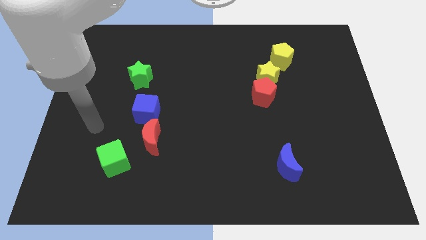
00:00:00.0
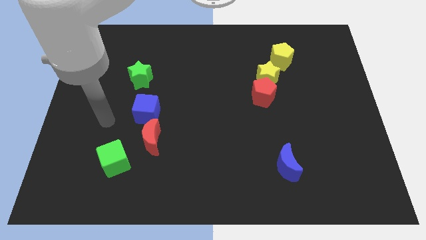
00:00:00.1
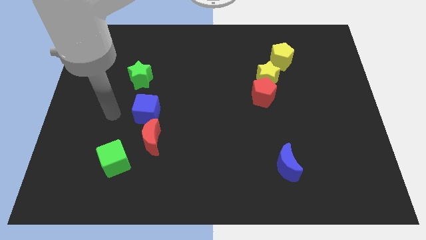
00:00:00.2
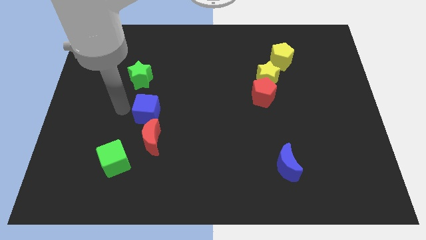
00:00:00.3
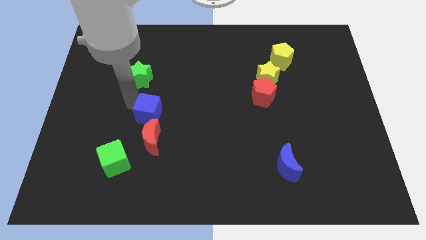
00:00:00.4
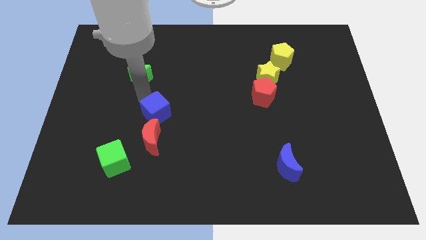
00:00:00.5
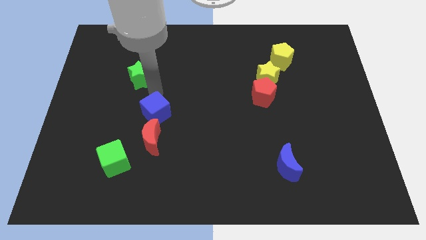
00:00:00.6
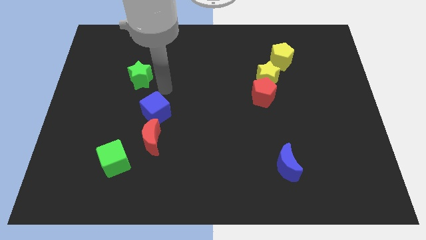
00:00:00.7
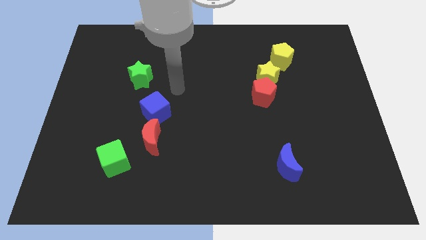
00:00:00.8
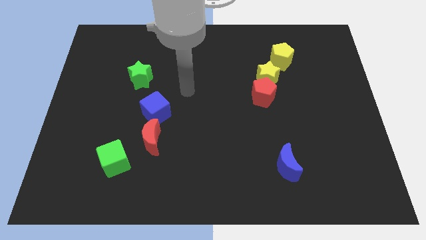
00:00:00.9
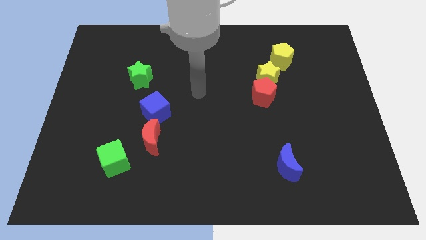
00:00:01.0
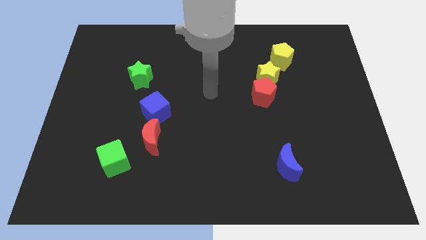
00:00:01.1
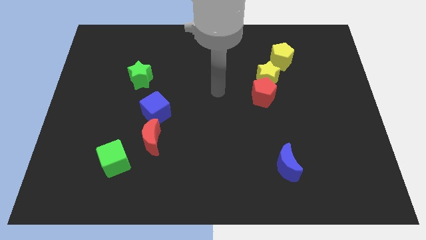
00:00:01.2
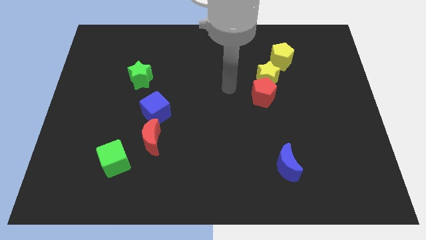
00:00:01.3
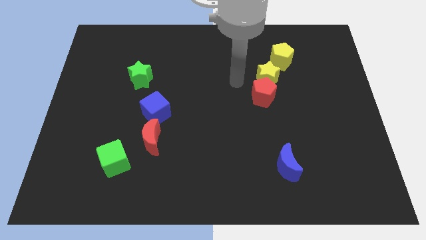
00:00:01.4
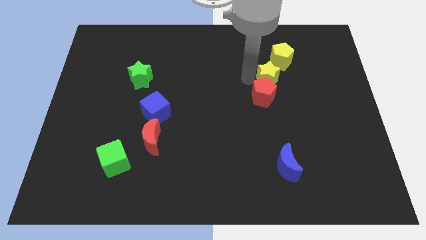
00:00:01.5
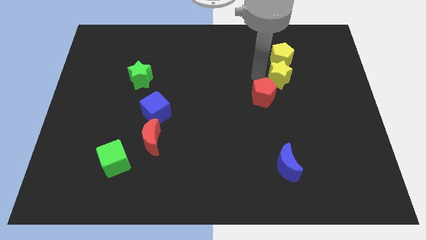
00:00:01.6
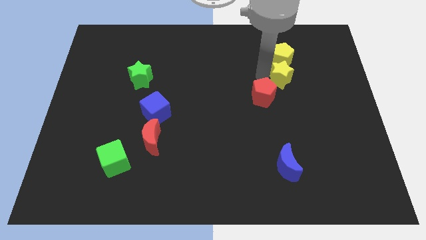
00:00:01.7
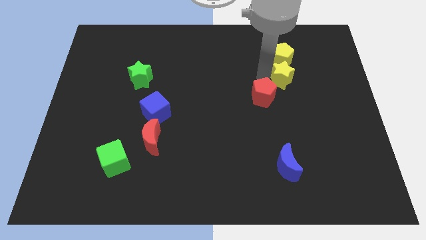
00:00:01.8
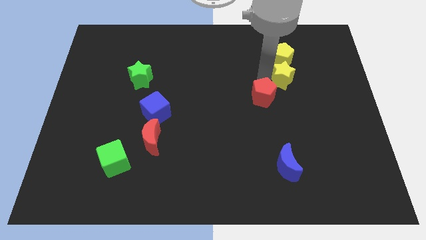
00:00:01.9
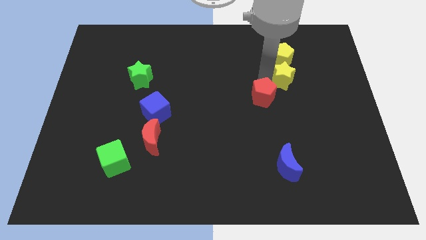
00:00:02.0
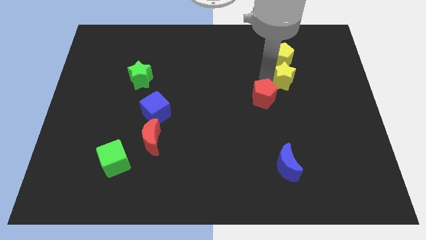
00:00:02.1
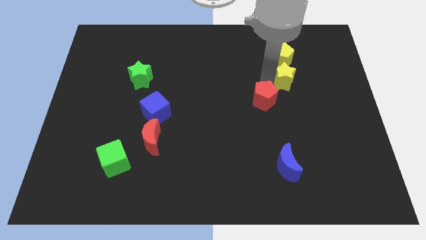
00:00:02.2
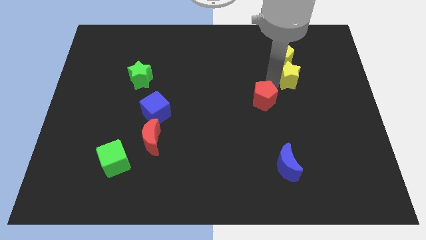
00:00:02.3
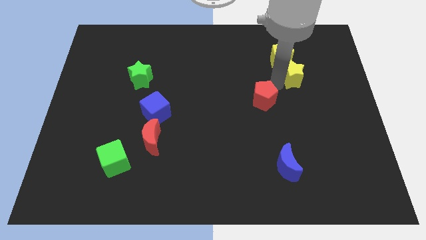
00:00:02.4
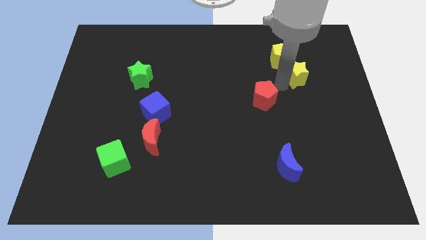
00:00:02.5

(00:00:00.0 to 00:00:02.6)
separate the red pentagon from the yellow star

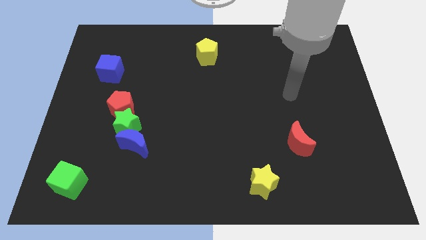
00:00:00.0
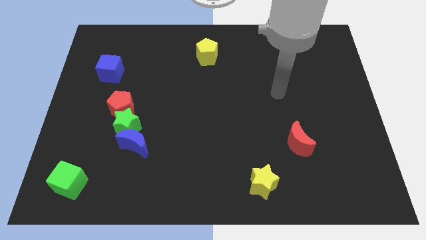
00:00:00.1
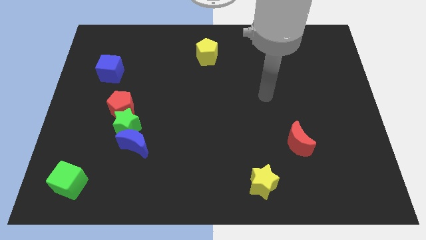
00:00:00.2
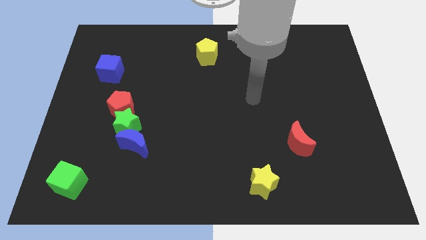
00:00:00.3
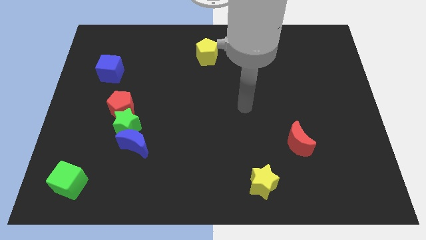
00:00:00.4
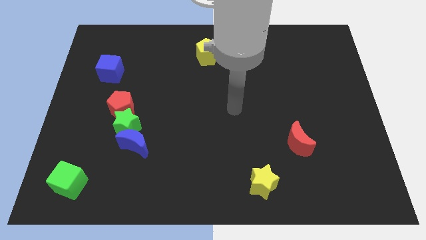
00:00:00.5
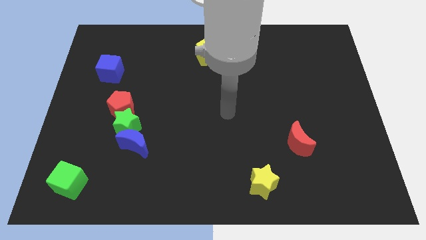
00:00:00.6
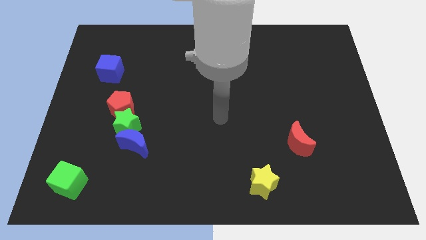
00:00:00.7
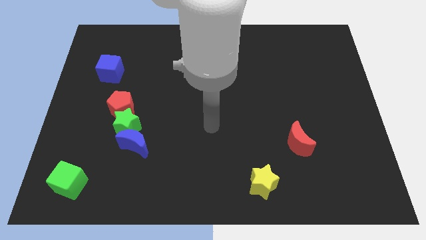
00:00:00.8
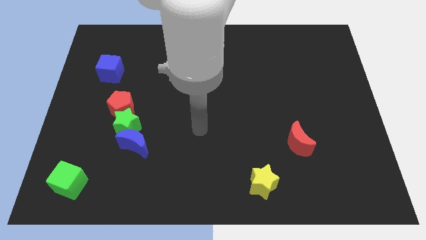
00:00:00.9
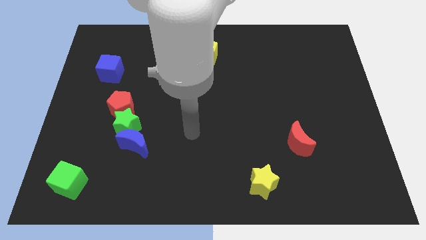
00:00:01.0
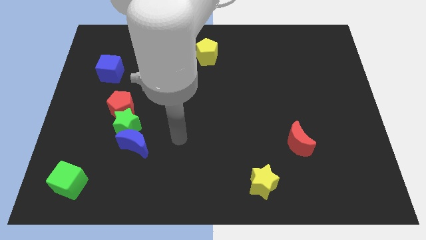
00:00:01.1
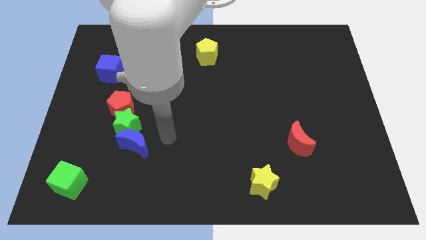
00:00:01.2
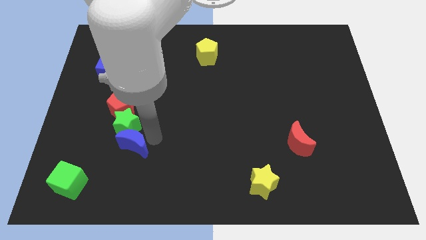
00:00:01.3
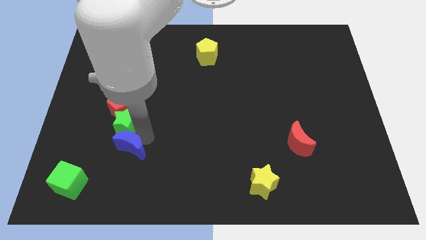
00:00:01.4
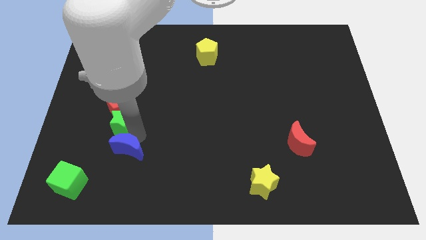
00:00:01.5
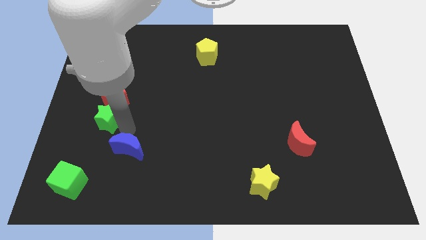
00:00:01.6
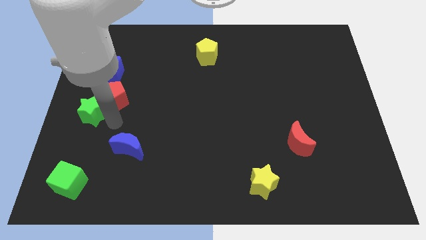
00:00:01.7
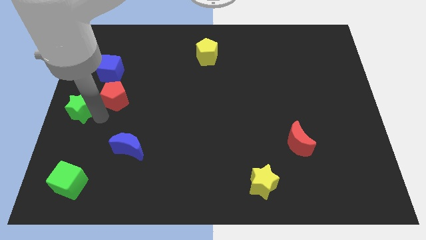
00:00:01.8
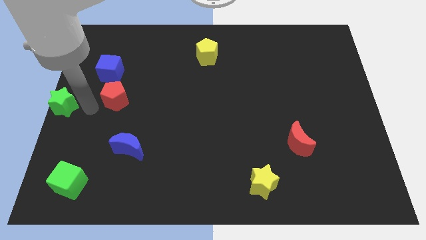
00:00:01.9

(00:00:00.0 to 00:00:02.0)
separate the red pentagon from the green star

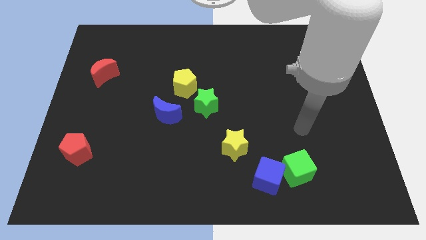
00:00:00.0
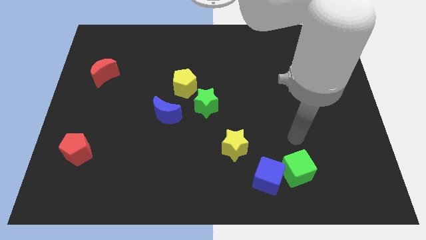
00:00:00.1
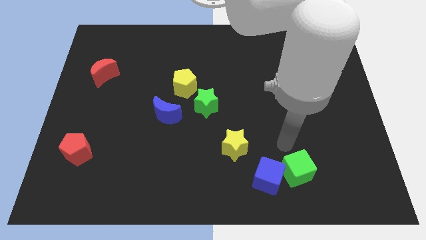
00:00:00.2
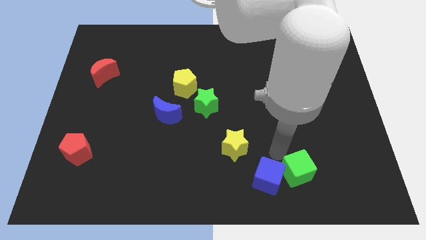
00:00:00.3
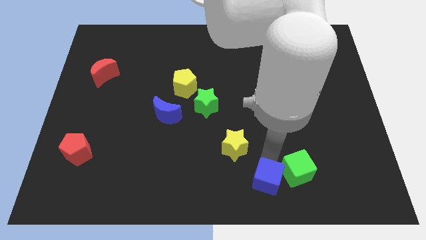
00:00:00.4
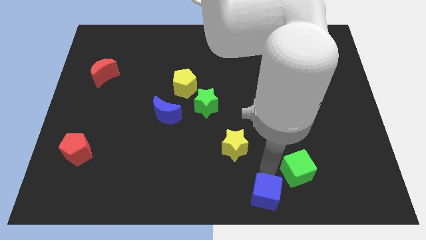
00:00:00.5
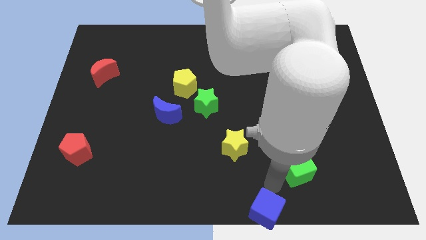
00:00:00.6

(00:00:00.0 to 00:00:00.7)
pull the green cube apart from the blue cube

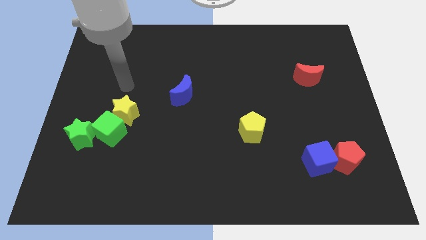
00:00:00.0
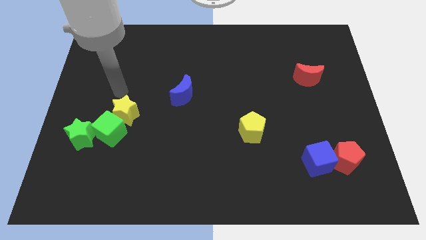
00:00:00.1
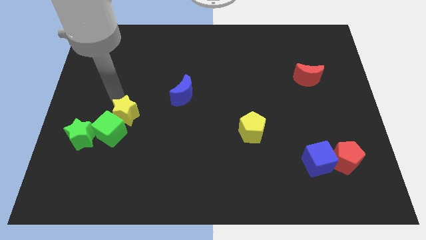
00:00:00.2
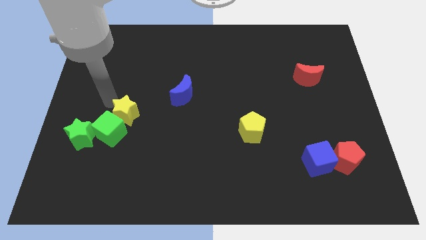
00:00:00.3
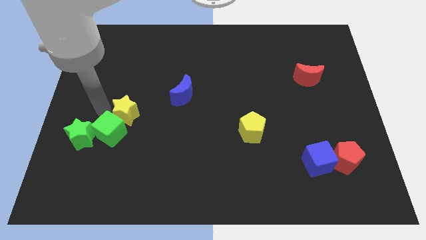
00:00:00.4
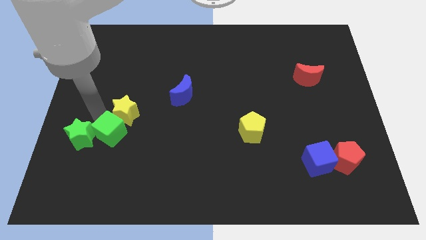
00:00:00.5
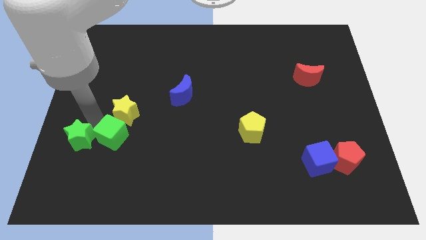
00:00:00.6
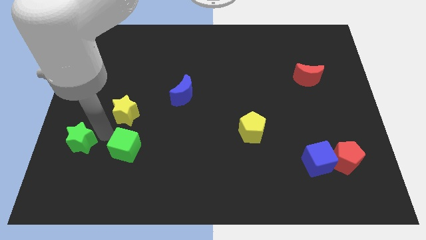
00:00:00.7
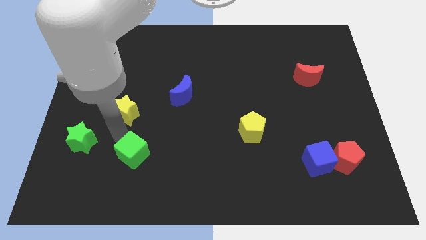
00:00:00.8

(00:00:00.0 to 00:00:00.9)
move the yellow star away from the green cube

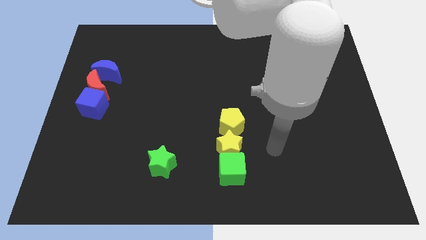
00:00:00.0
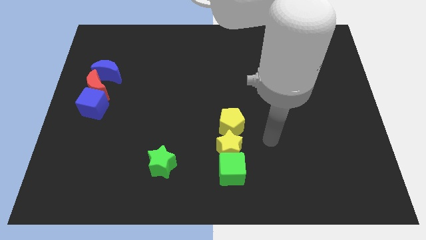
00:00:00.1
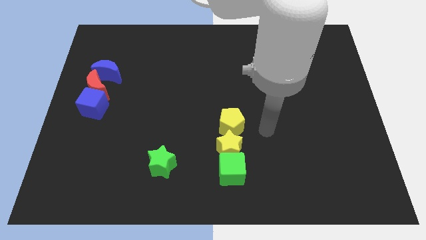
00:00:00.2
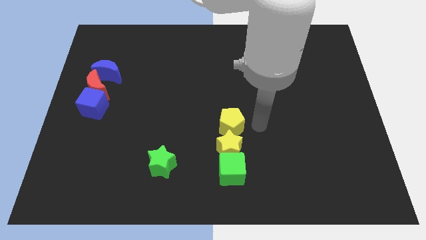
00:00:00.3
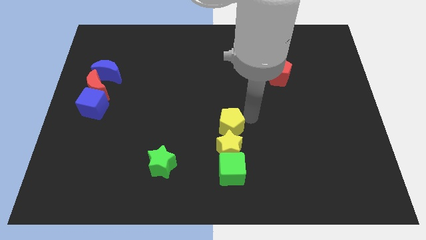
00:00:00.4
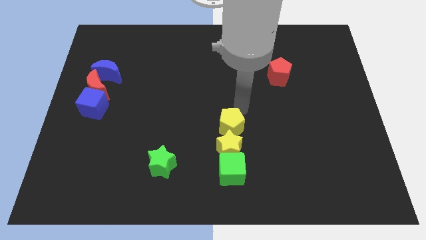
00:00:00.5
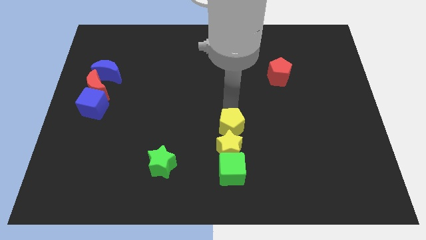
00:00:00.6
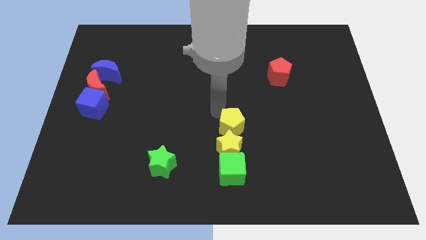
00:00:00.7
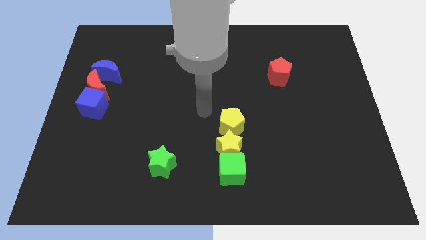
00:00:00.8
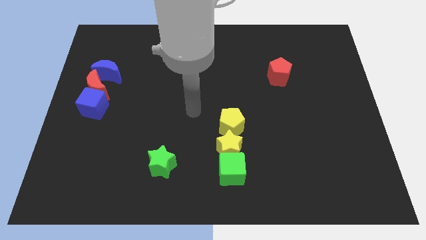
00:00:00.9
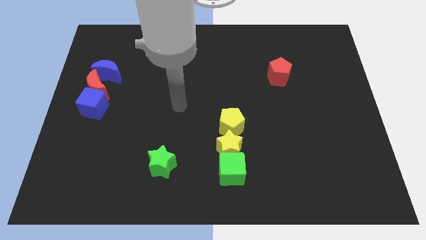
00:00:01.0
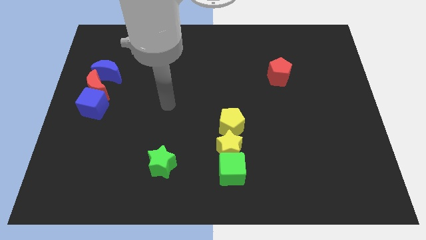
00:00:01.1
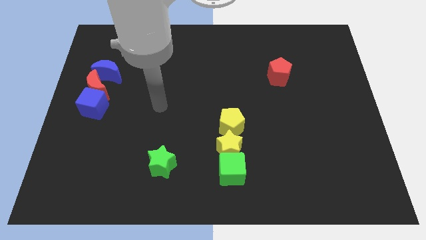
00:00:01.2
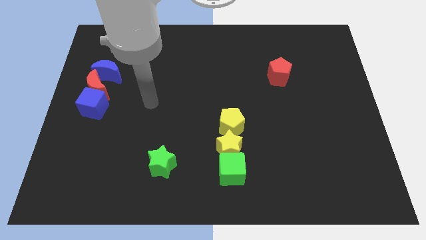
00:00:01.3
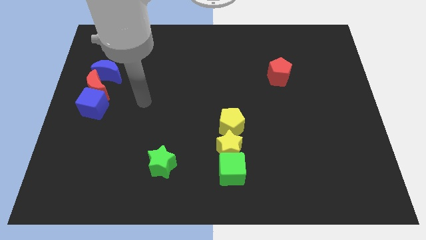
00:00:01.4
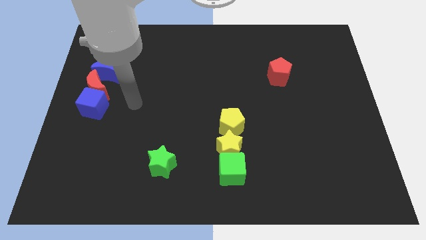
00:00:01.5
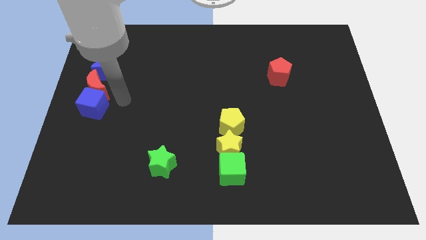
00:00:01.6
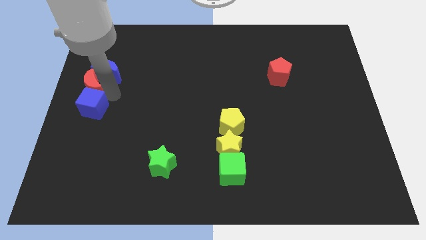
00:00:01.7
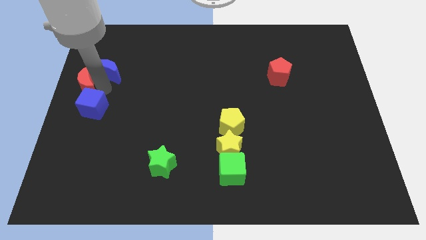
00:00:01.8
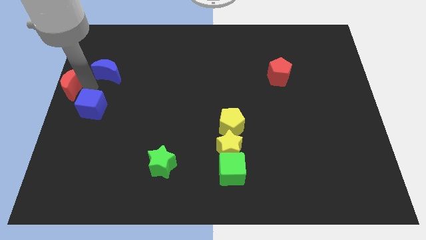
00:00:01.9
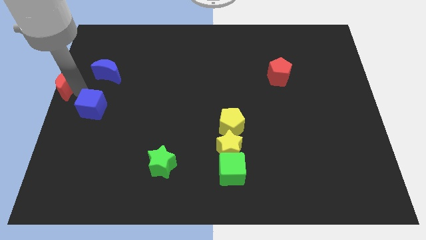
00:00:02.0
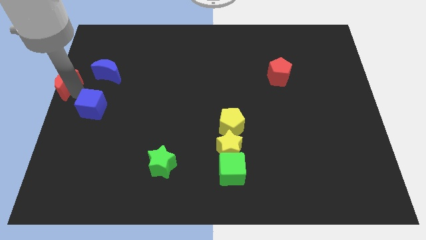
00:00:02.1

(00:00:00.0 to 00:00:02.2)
separate the blue cube from the red moon

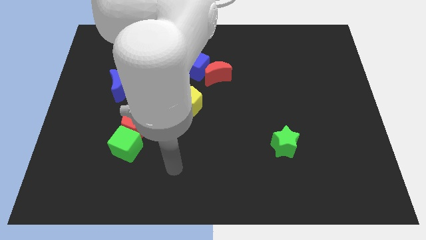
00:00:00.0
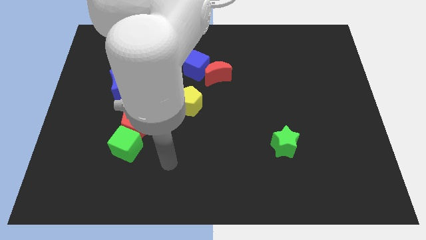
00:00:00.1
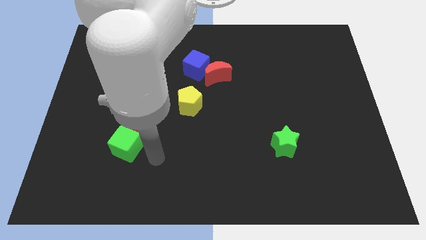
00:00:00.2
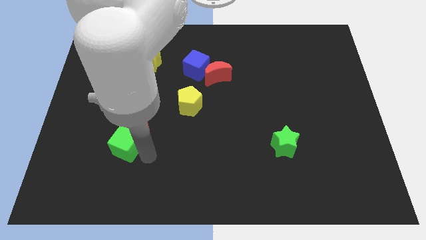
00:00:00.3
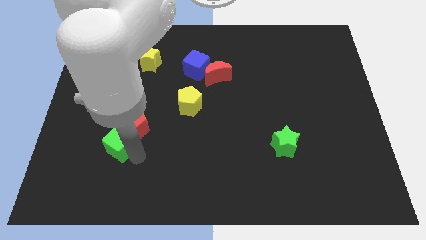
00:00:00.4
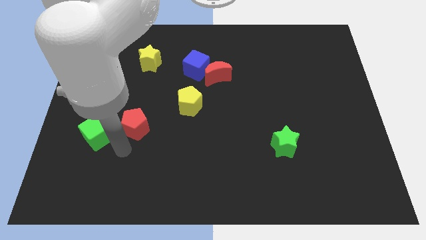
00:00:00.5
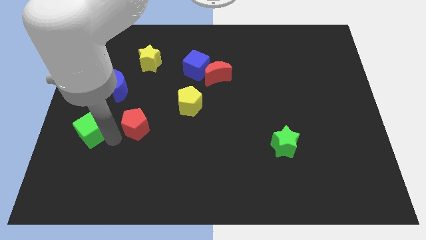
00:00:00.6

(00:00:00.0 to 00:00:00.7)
separate the red pentagon from the green cube

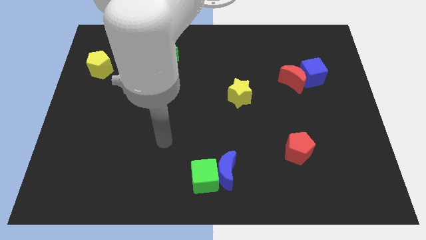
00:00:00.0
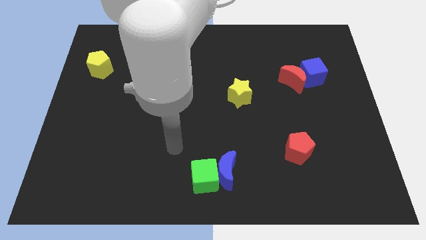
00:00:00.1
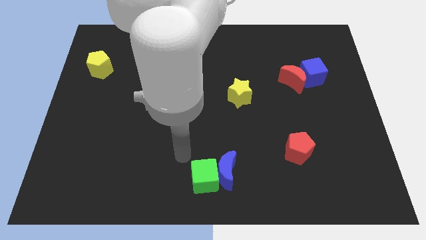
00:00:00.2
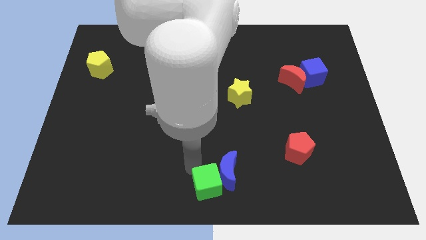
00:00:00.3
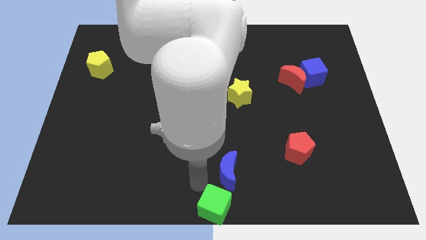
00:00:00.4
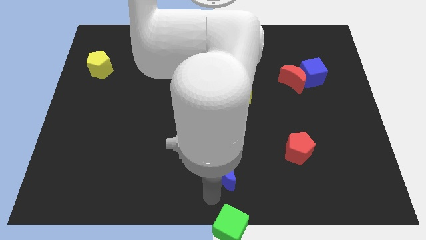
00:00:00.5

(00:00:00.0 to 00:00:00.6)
pull the blue moon apart from the green cube
